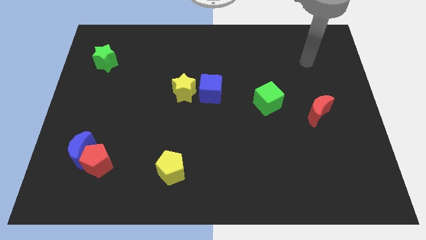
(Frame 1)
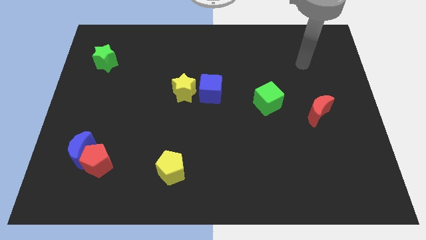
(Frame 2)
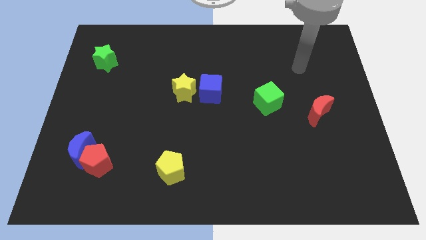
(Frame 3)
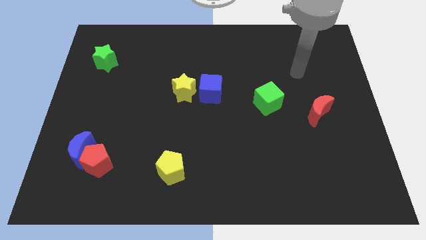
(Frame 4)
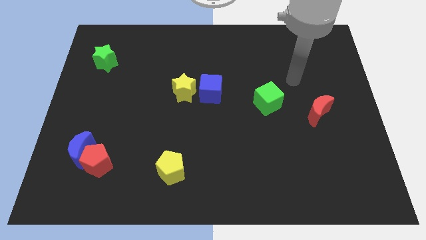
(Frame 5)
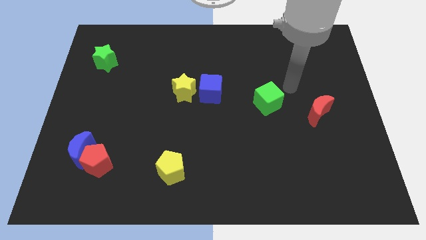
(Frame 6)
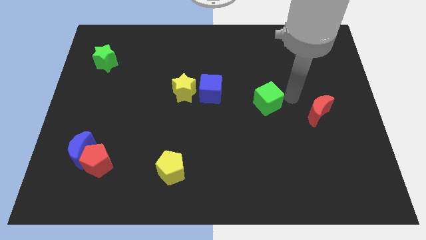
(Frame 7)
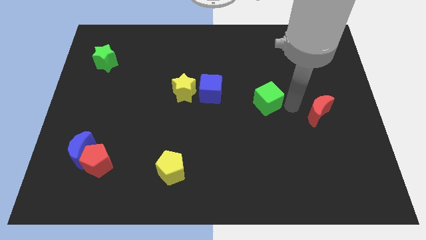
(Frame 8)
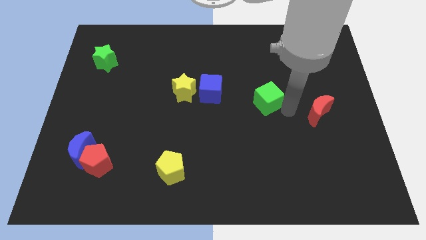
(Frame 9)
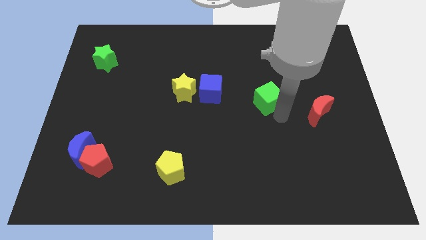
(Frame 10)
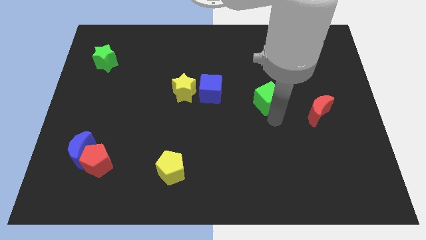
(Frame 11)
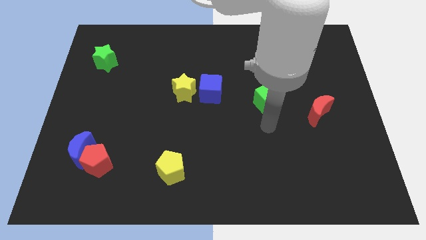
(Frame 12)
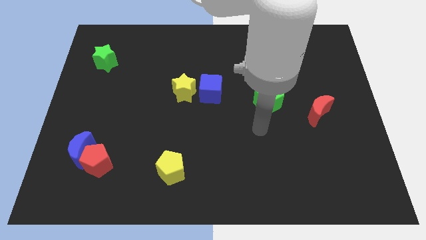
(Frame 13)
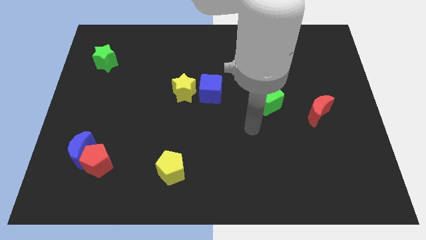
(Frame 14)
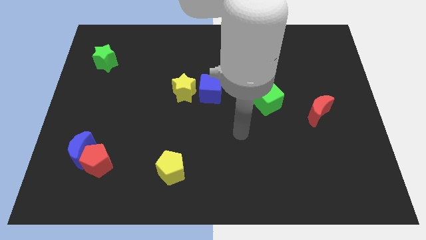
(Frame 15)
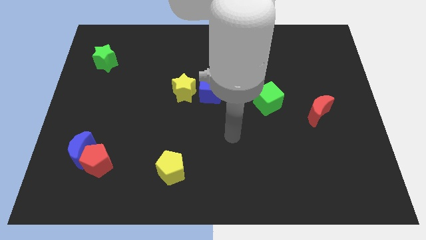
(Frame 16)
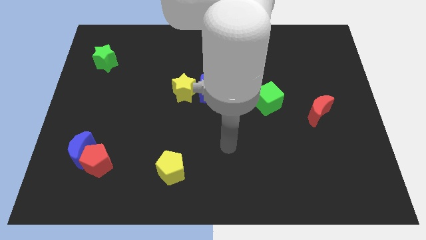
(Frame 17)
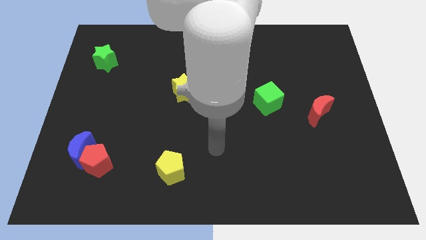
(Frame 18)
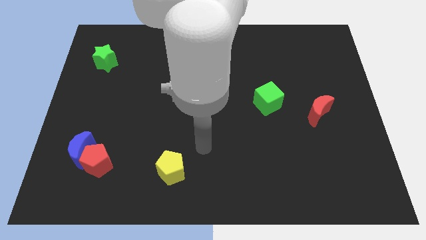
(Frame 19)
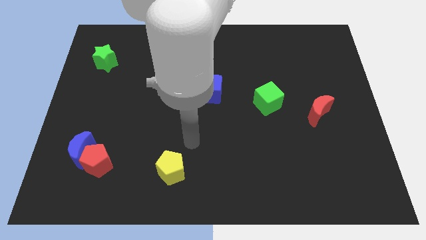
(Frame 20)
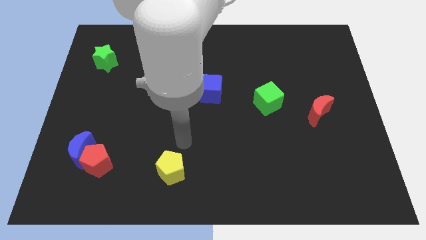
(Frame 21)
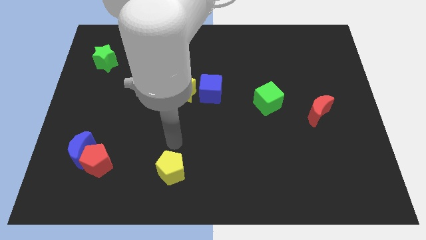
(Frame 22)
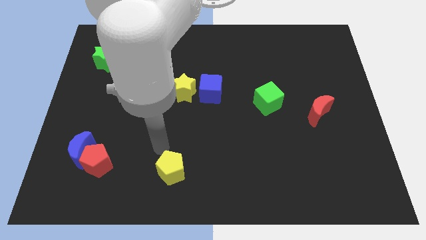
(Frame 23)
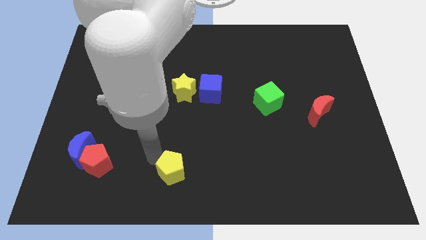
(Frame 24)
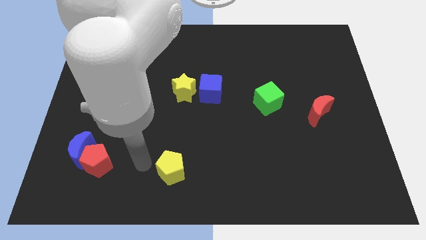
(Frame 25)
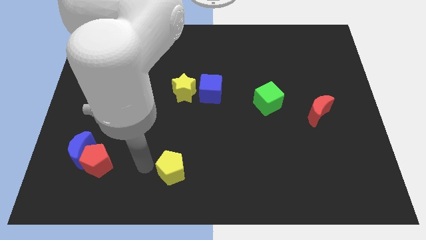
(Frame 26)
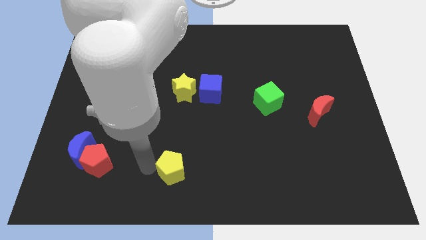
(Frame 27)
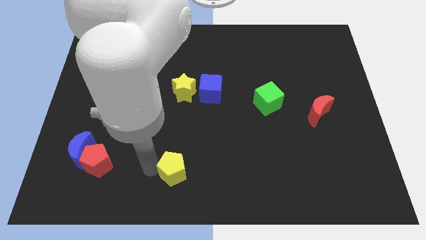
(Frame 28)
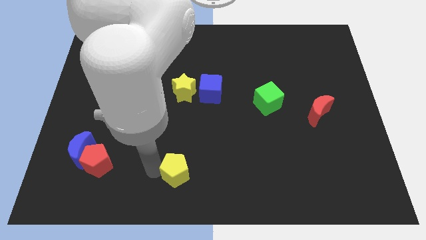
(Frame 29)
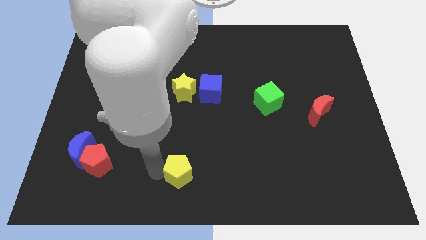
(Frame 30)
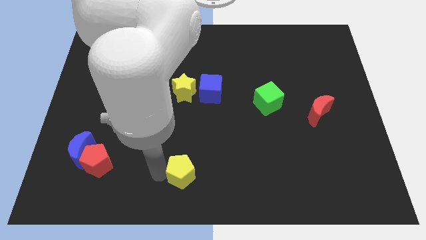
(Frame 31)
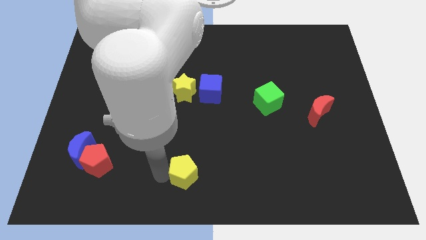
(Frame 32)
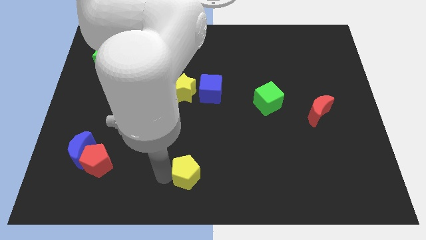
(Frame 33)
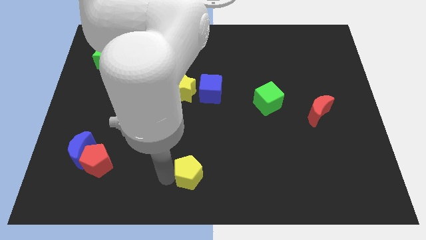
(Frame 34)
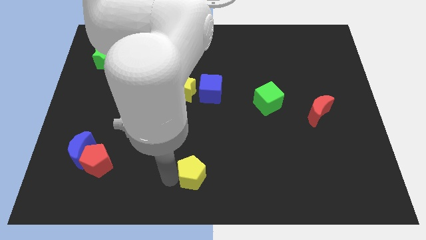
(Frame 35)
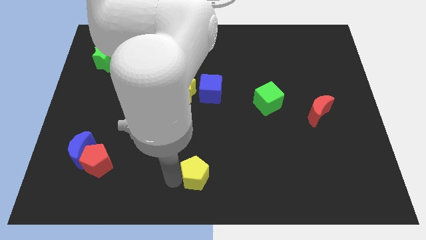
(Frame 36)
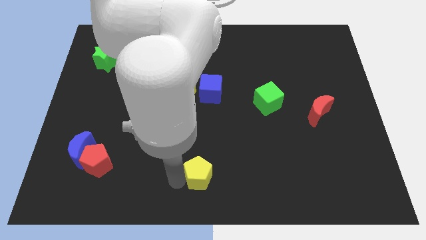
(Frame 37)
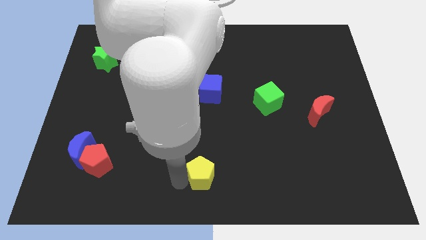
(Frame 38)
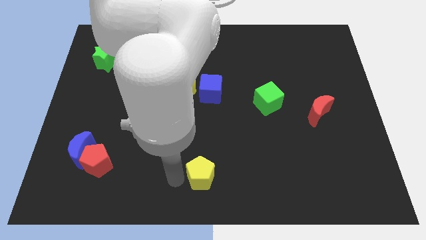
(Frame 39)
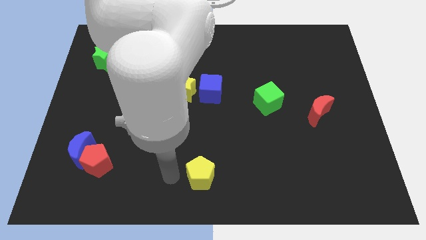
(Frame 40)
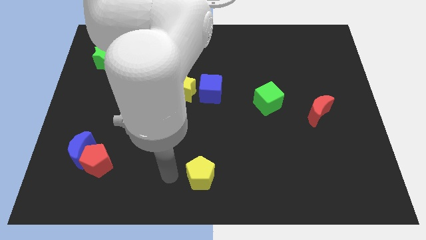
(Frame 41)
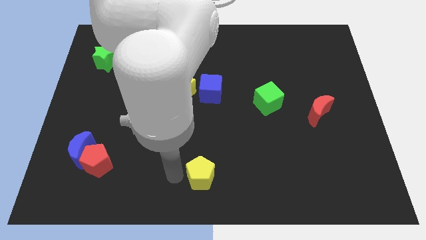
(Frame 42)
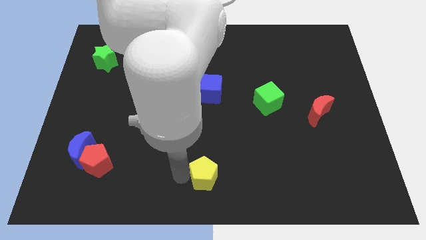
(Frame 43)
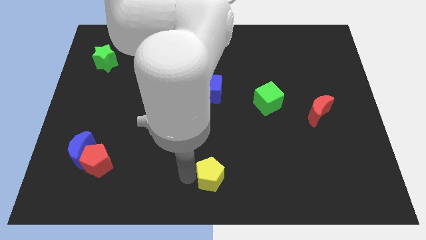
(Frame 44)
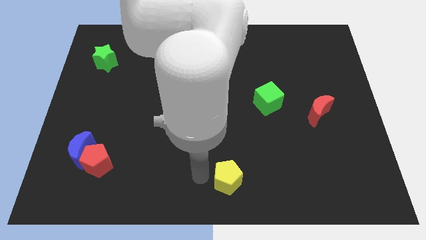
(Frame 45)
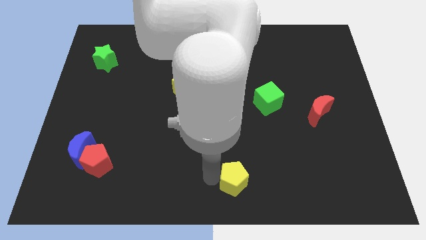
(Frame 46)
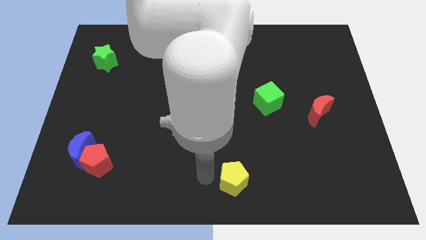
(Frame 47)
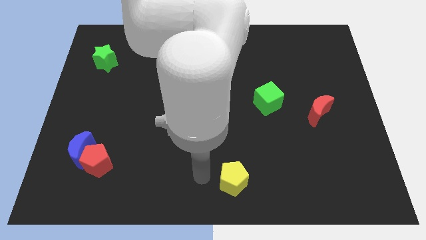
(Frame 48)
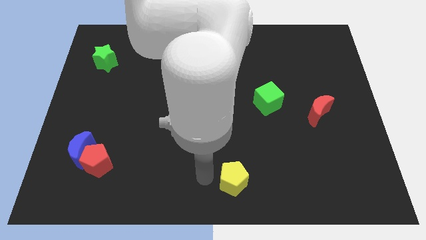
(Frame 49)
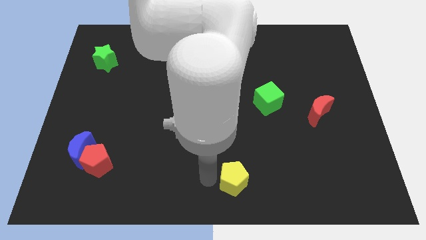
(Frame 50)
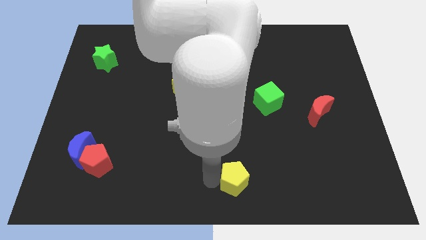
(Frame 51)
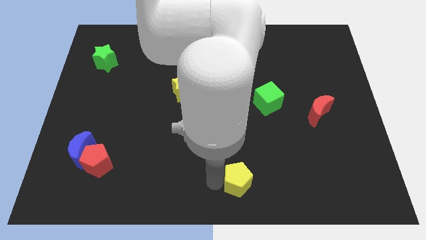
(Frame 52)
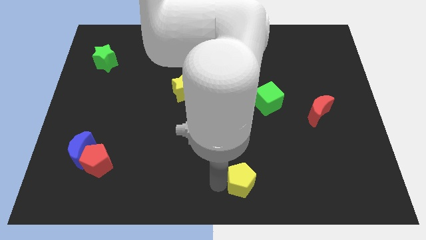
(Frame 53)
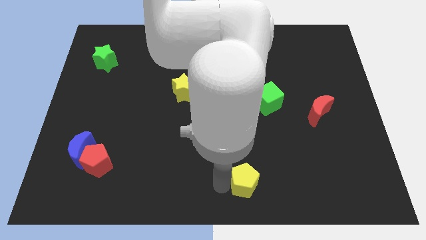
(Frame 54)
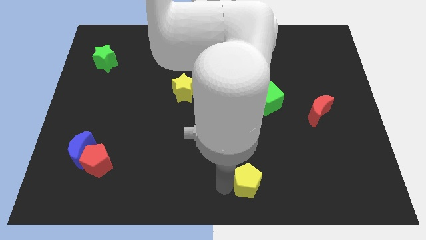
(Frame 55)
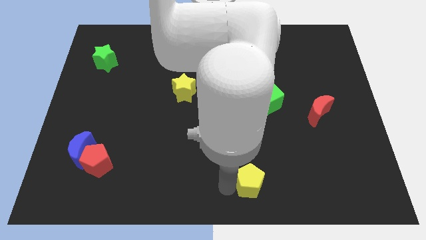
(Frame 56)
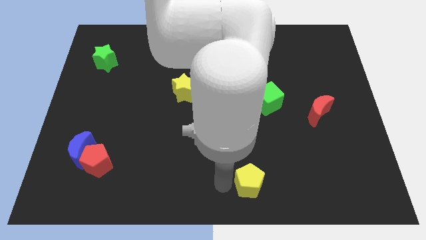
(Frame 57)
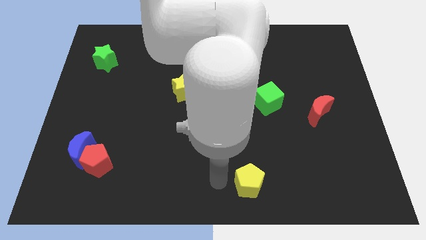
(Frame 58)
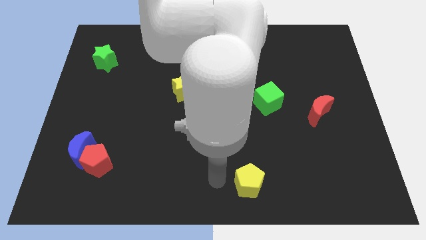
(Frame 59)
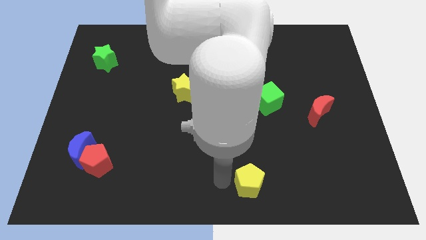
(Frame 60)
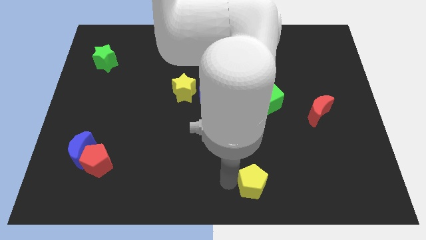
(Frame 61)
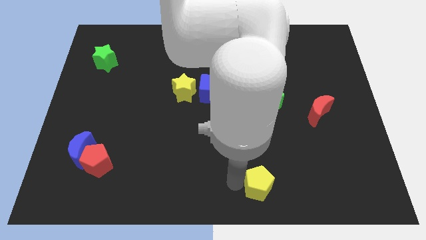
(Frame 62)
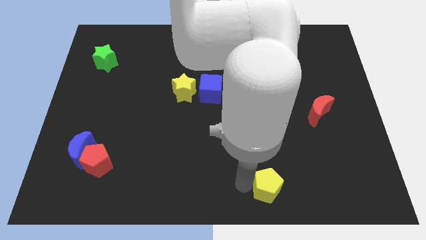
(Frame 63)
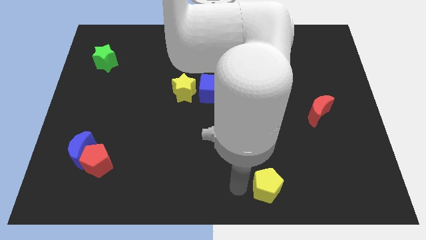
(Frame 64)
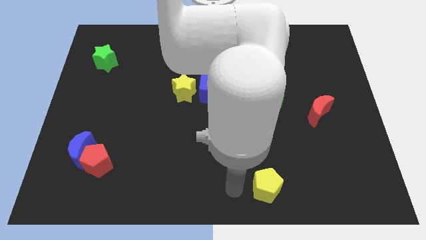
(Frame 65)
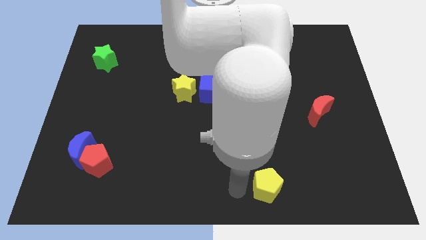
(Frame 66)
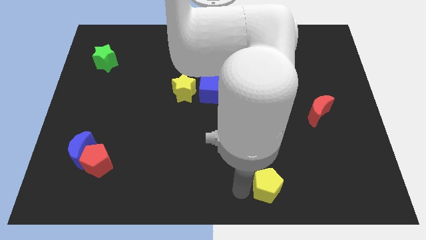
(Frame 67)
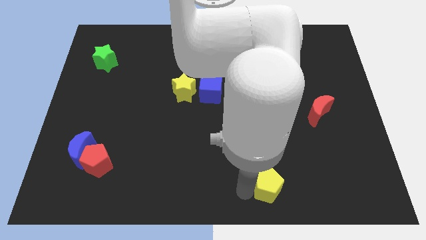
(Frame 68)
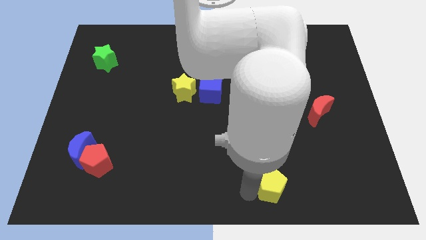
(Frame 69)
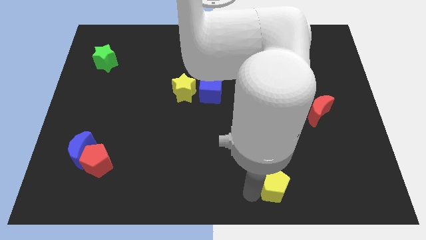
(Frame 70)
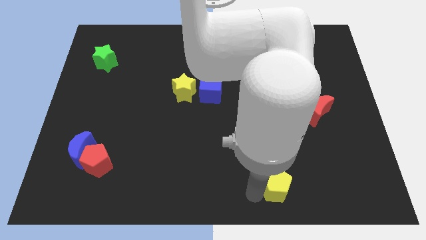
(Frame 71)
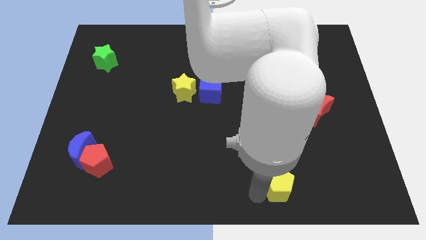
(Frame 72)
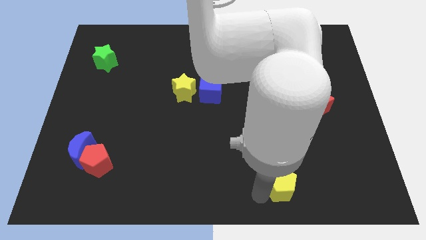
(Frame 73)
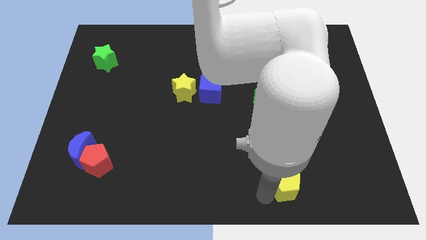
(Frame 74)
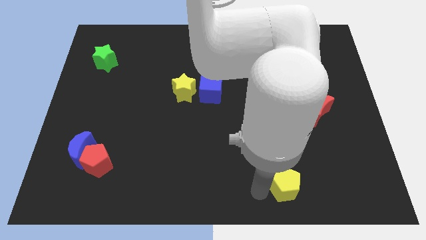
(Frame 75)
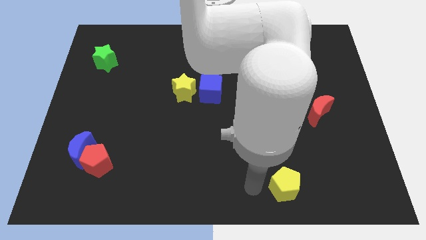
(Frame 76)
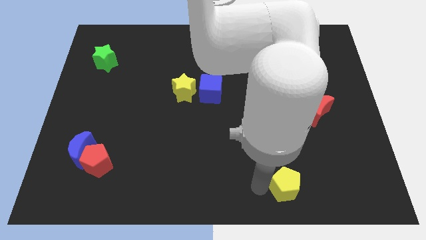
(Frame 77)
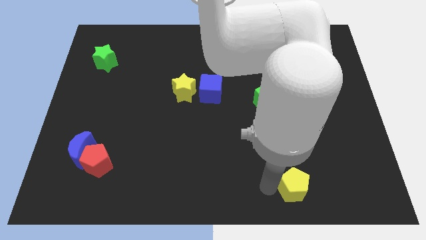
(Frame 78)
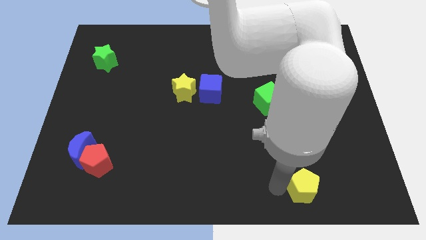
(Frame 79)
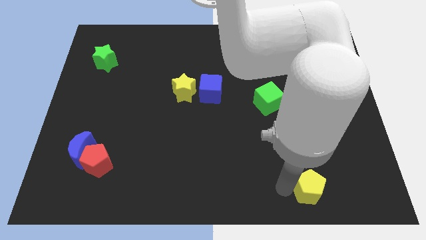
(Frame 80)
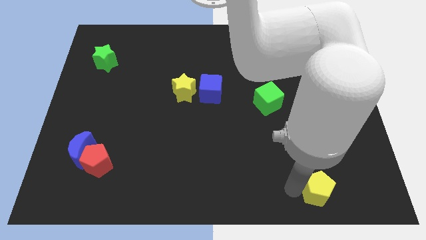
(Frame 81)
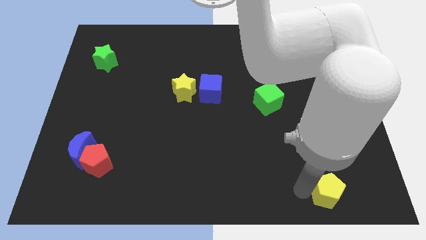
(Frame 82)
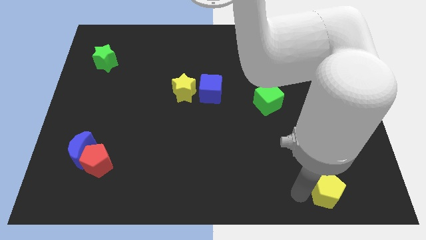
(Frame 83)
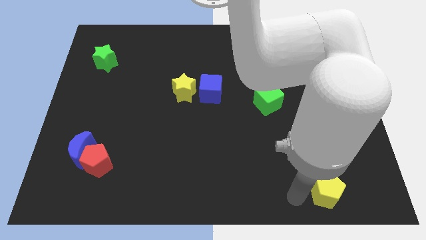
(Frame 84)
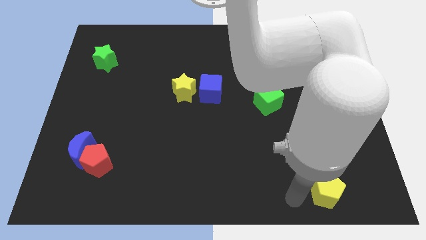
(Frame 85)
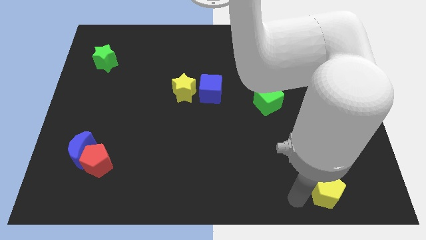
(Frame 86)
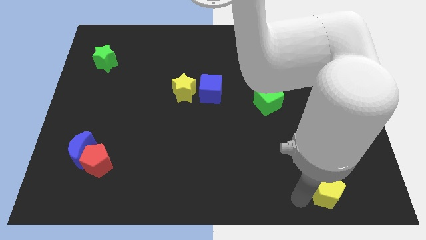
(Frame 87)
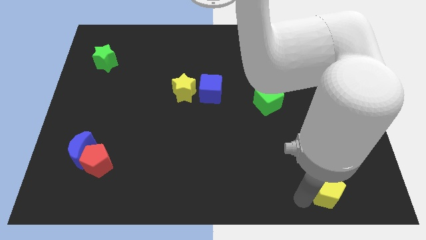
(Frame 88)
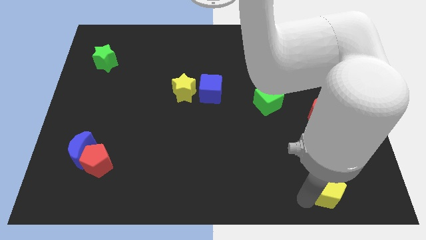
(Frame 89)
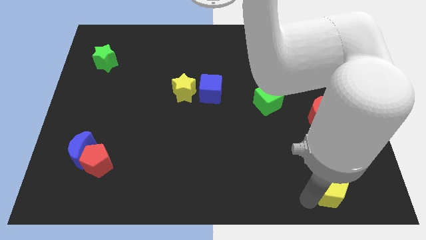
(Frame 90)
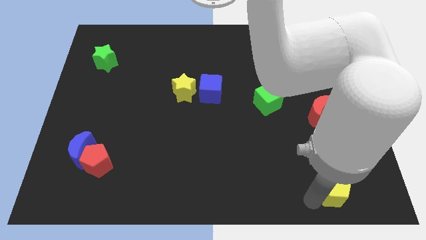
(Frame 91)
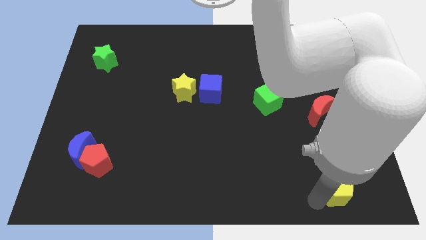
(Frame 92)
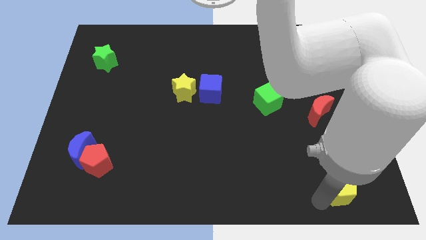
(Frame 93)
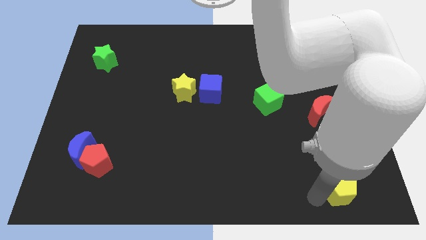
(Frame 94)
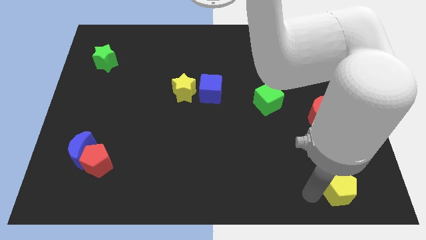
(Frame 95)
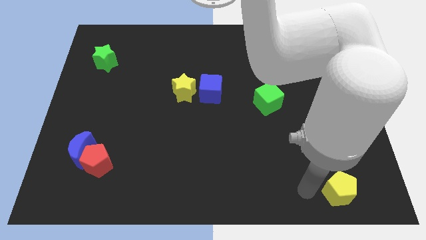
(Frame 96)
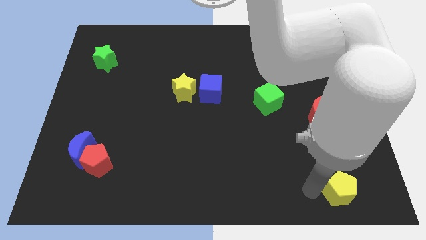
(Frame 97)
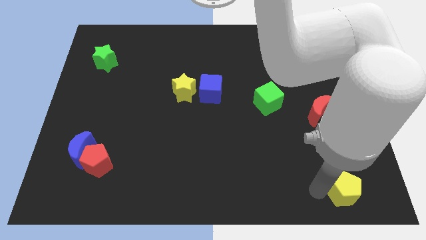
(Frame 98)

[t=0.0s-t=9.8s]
move the yellow pentagon to the bottom right corner
